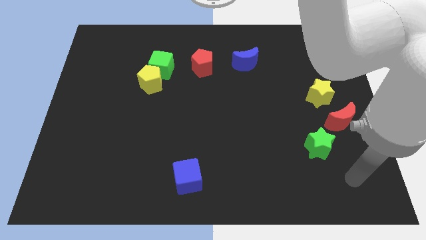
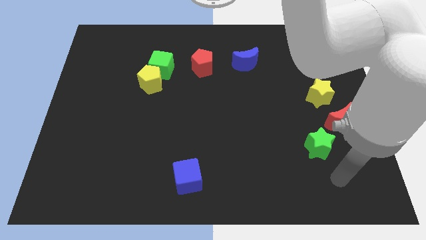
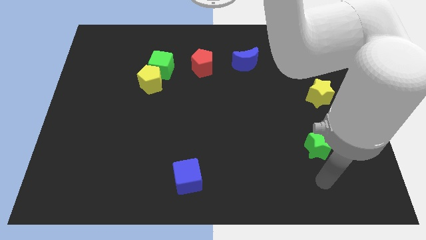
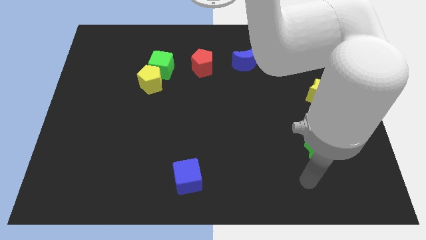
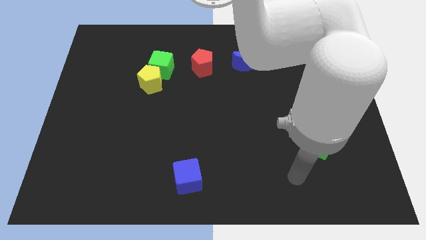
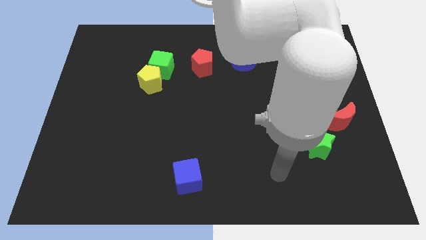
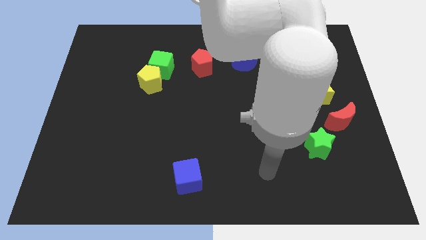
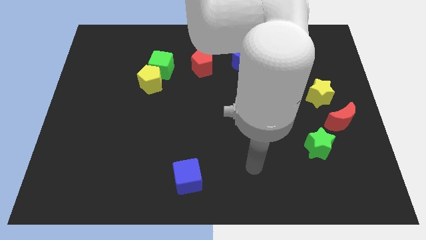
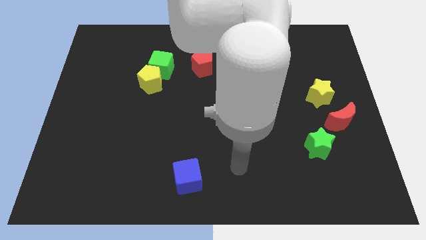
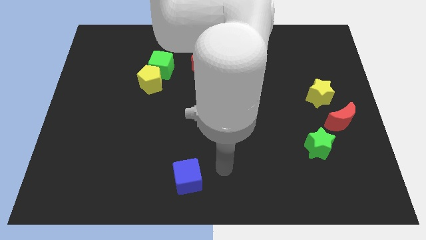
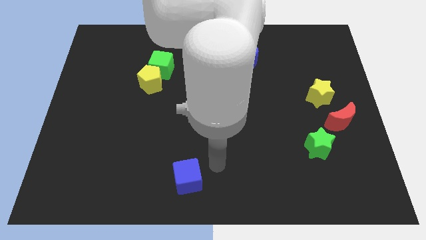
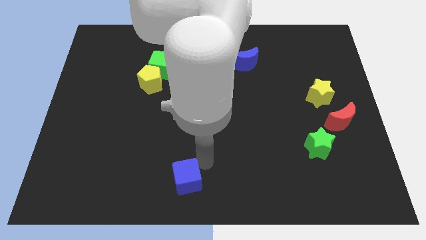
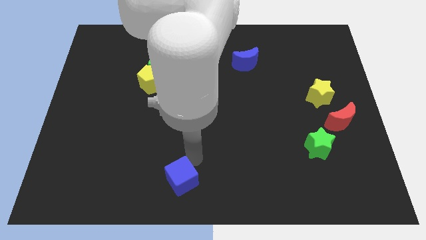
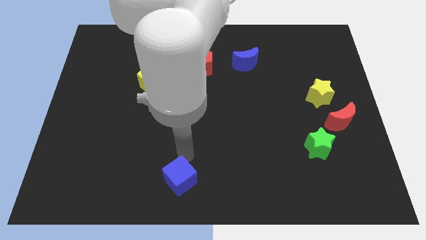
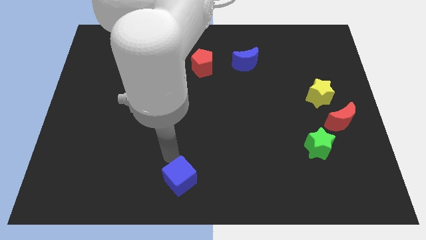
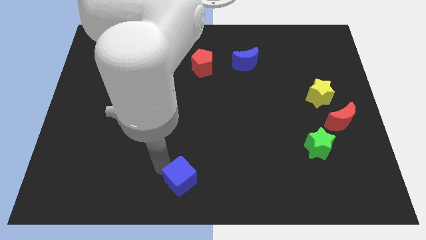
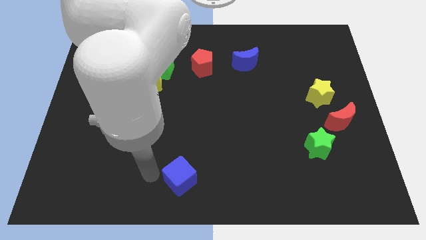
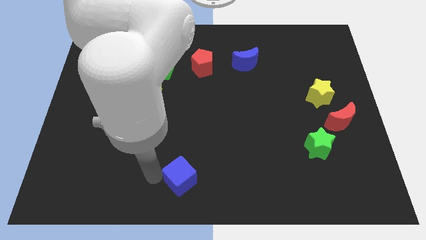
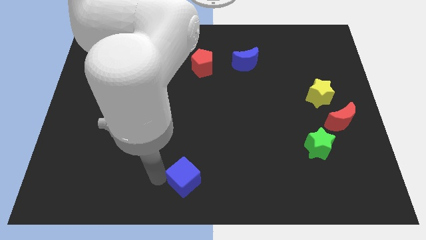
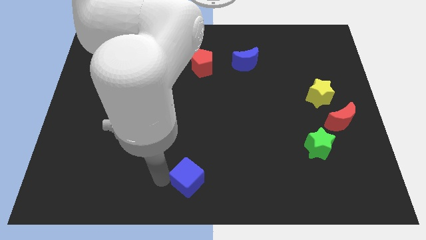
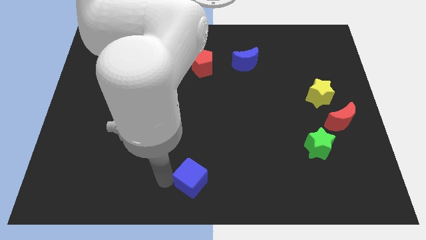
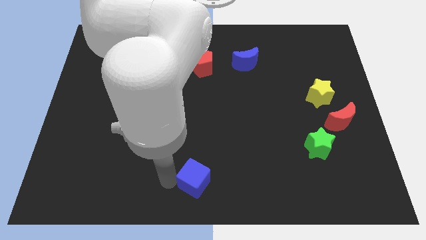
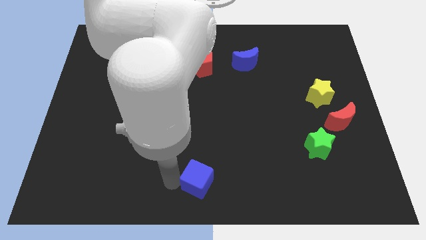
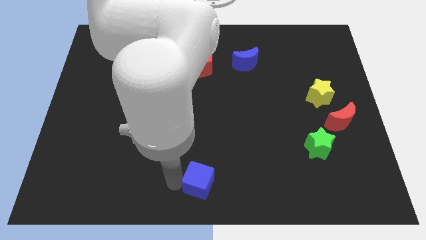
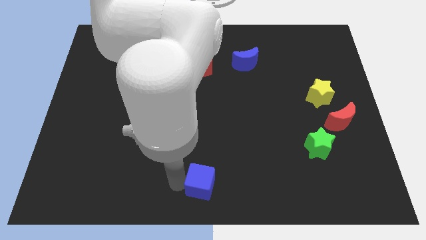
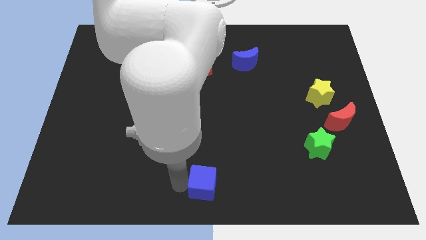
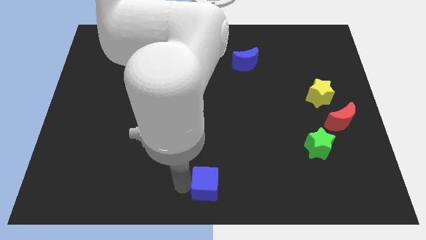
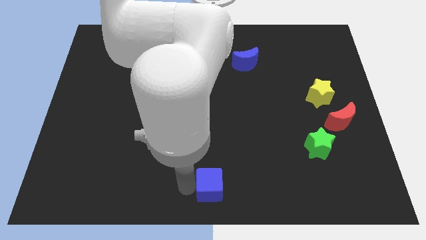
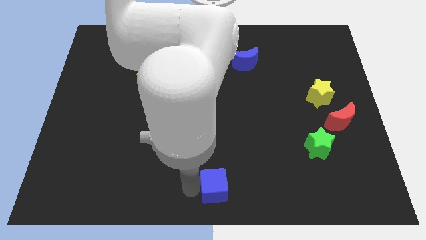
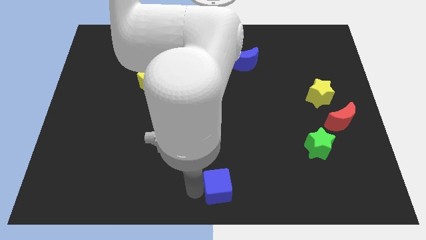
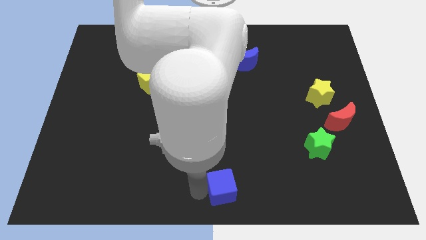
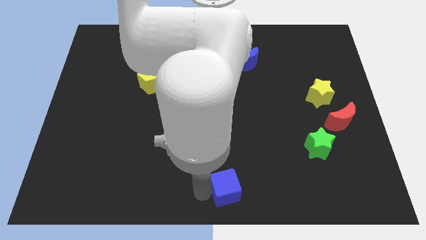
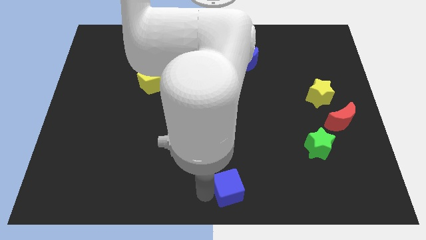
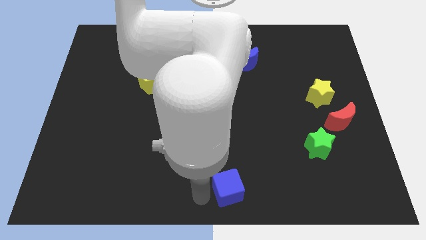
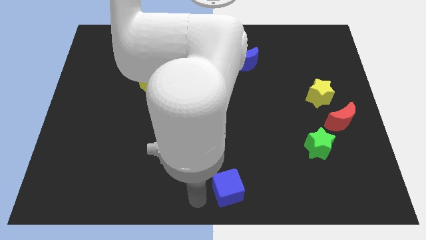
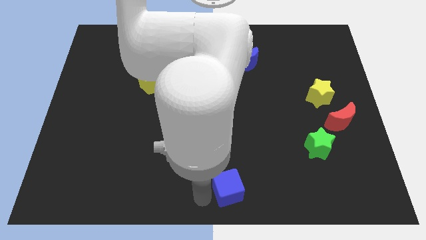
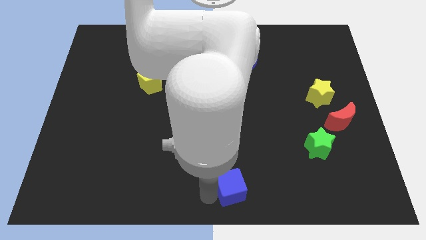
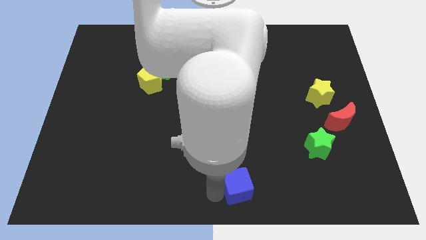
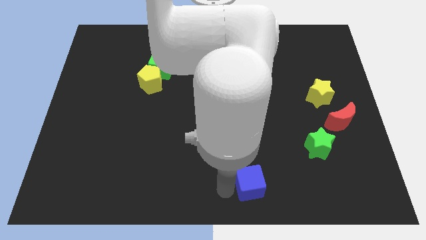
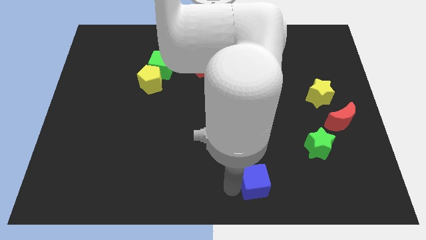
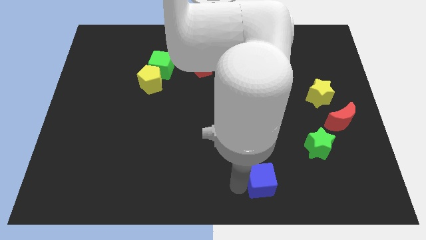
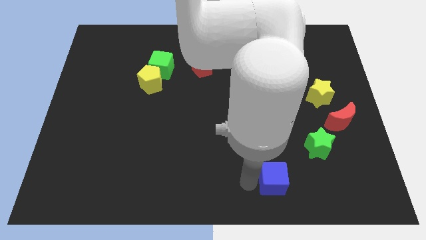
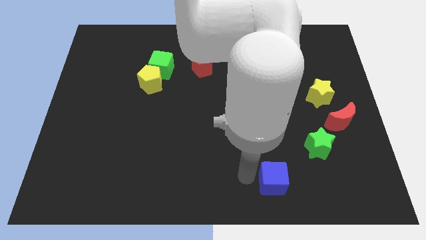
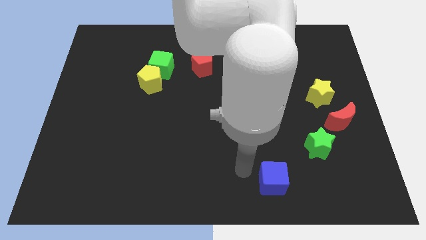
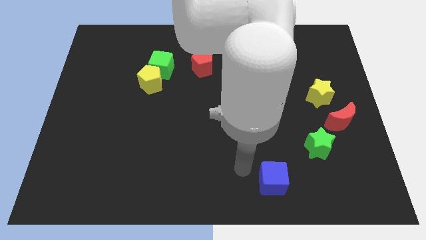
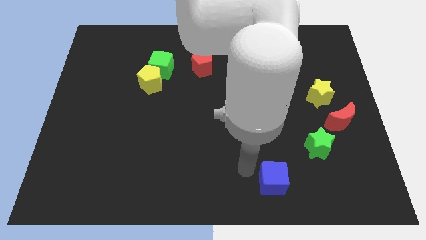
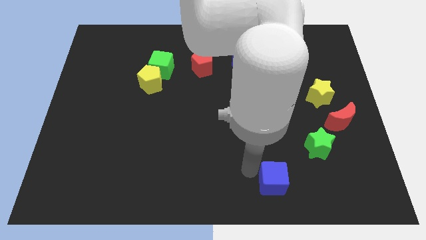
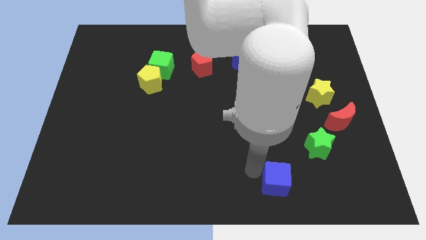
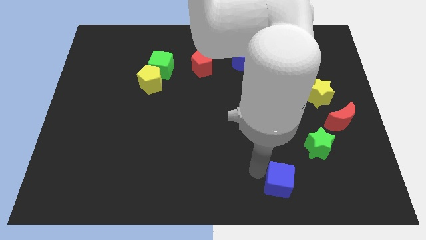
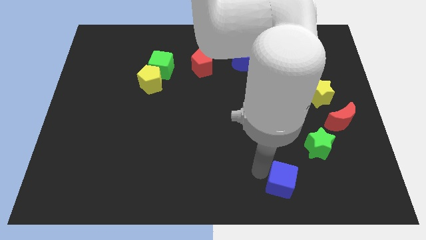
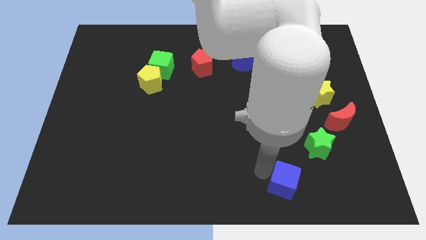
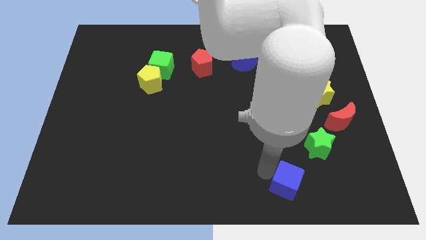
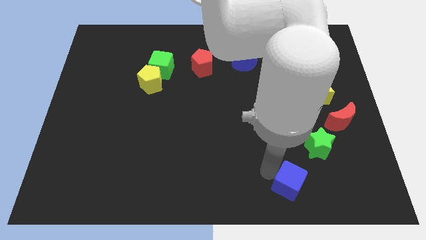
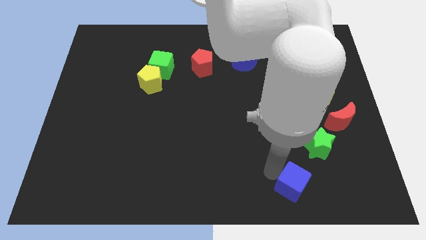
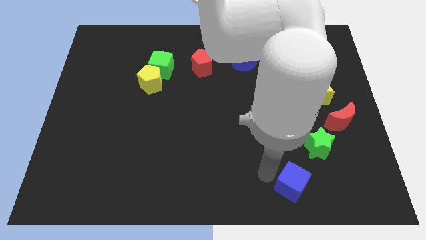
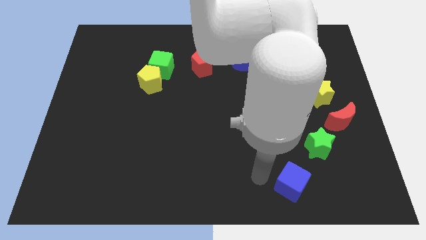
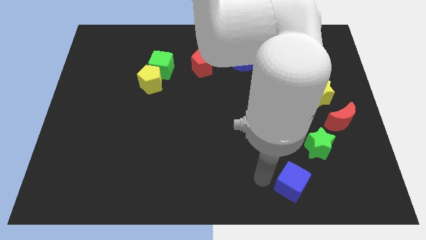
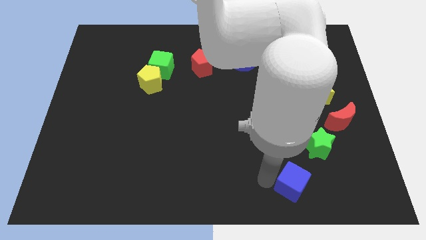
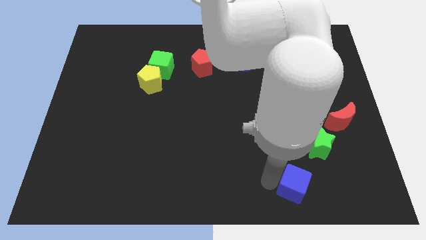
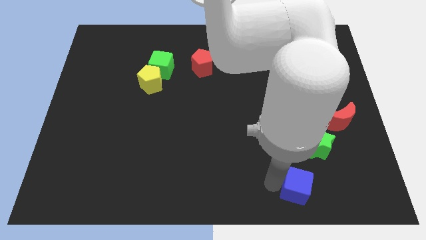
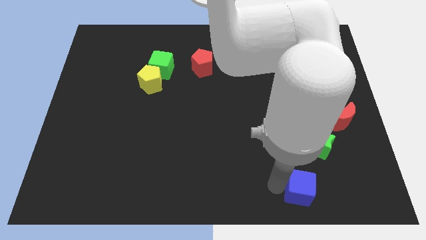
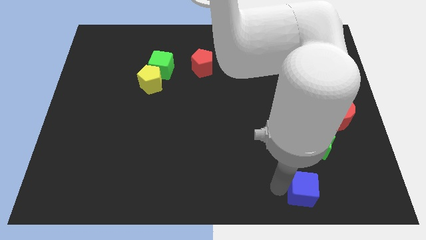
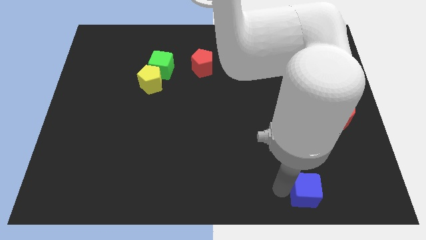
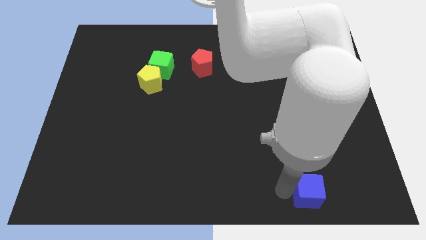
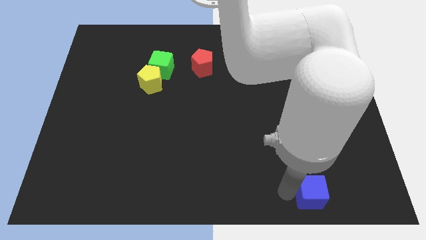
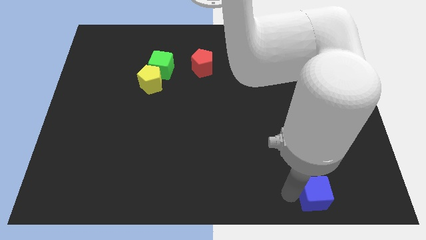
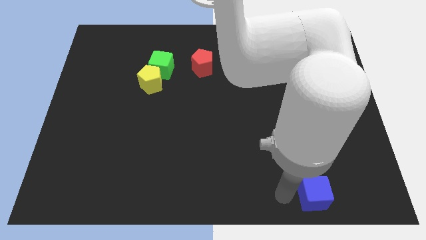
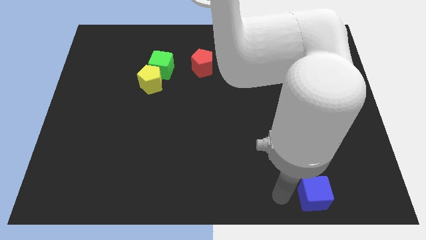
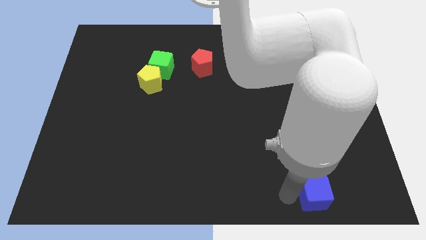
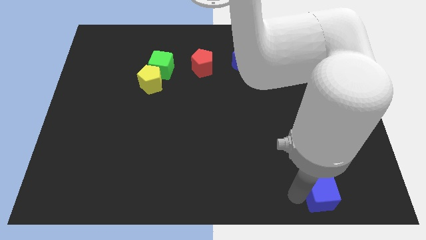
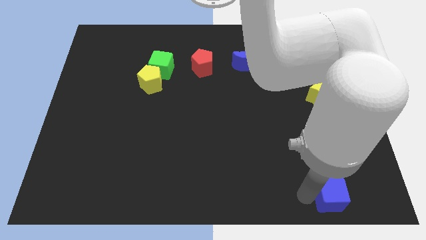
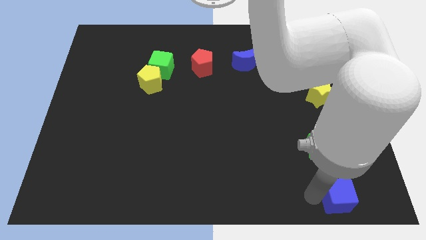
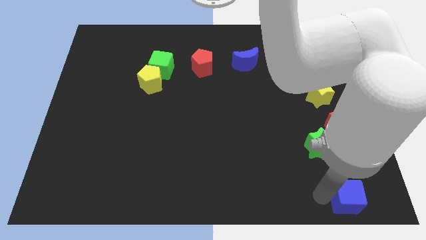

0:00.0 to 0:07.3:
push the blue cube to the bottom right

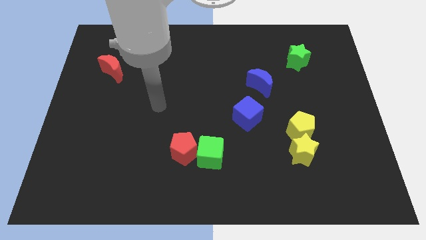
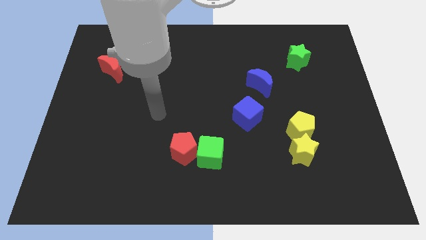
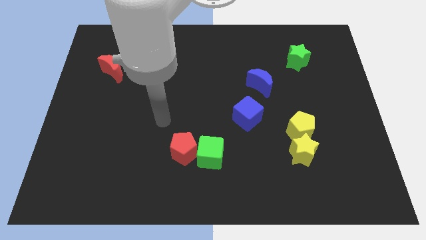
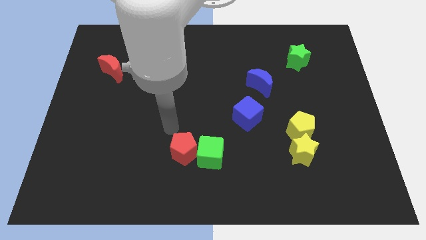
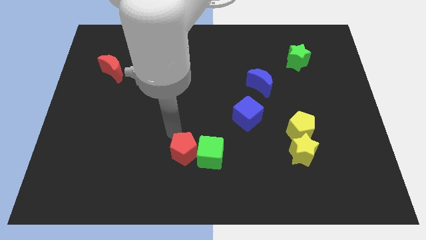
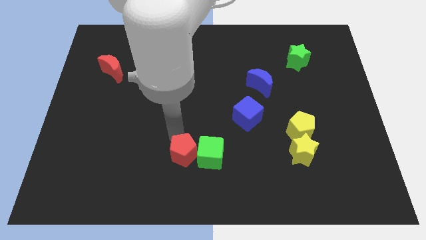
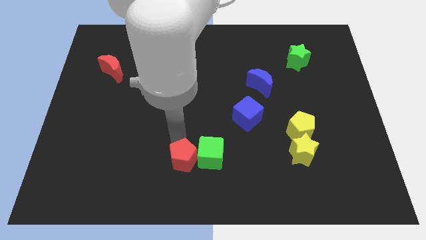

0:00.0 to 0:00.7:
move the red pentagon to the bottom
